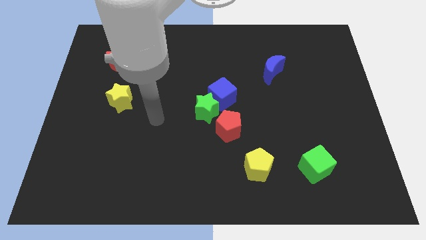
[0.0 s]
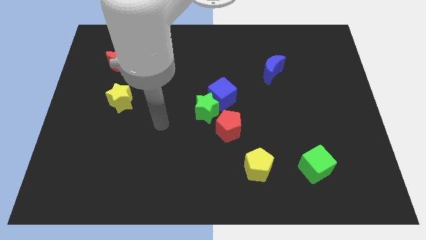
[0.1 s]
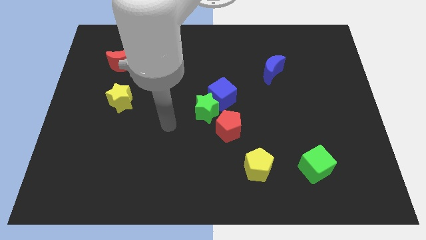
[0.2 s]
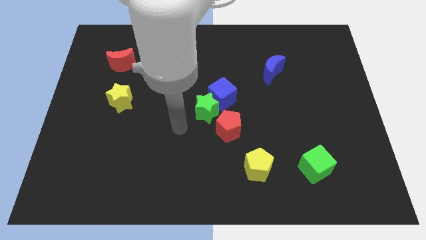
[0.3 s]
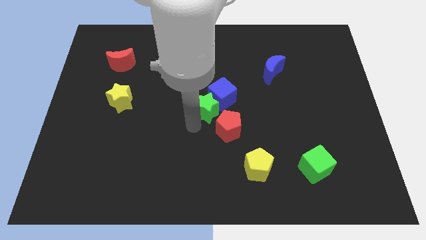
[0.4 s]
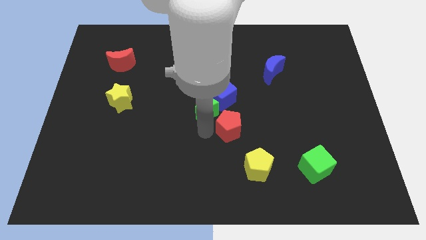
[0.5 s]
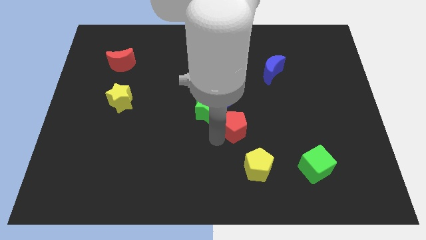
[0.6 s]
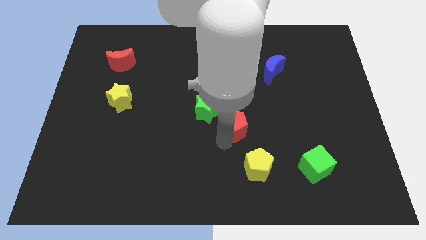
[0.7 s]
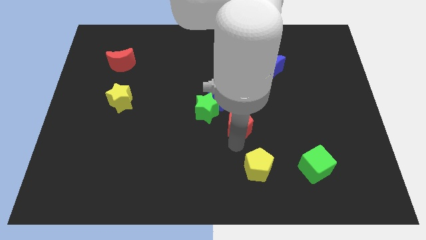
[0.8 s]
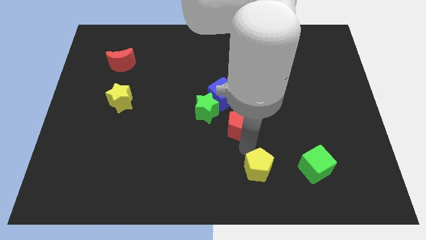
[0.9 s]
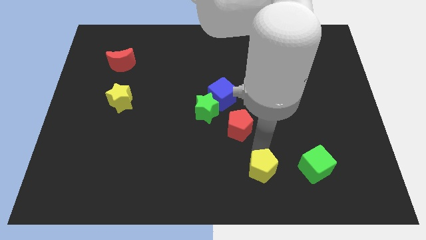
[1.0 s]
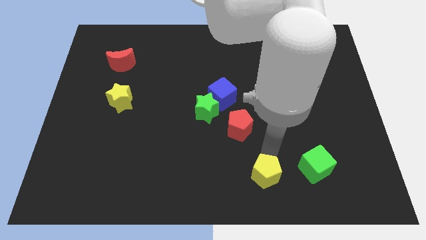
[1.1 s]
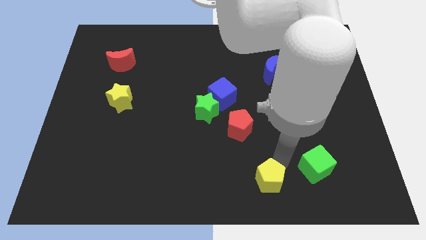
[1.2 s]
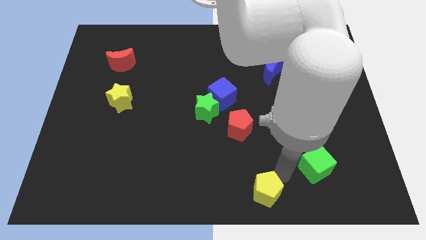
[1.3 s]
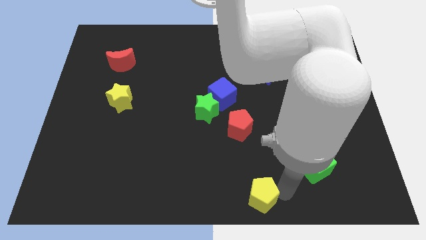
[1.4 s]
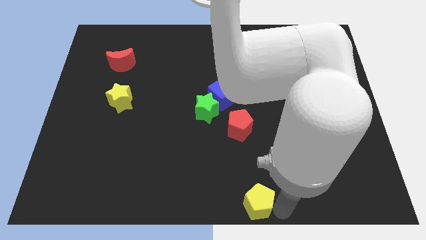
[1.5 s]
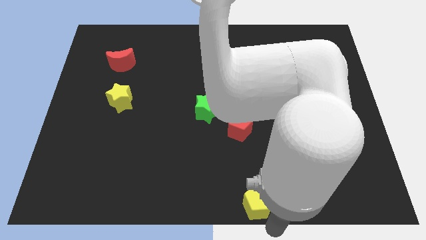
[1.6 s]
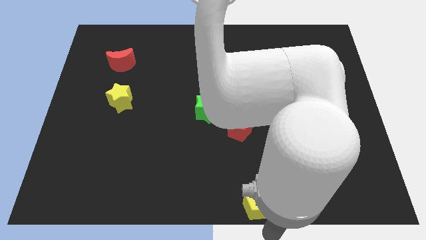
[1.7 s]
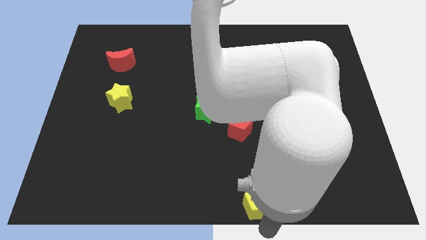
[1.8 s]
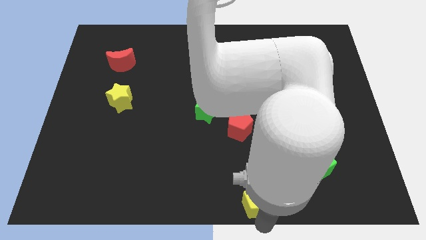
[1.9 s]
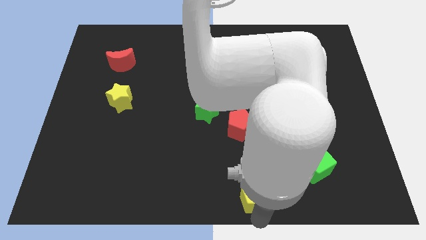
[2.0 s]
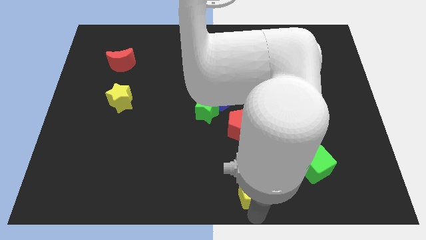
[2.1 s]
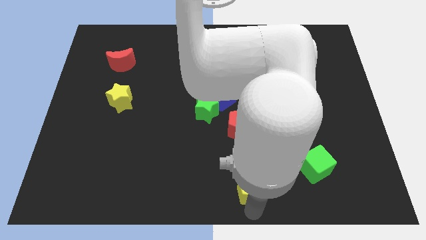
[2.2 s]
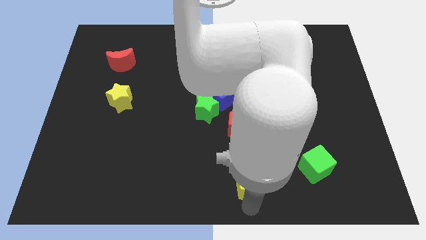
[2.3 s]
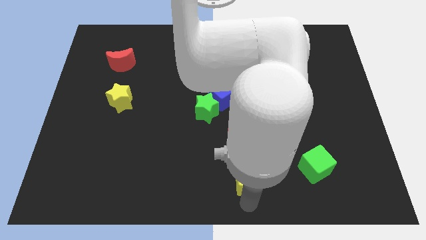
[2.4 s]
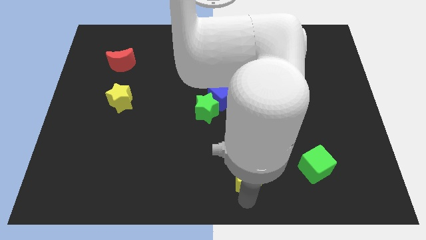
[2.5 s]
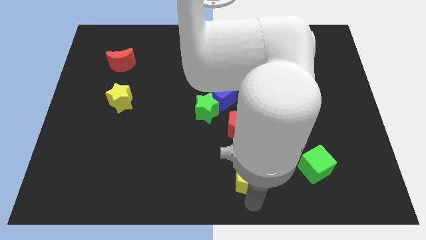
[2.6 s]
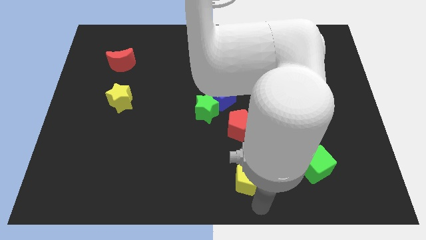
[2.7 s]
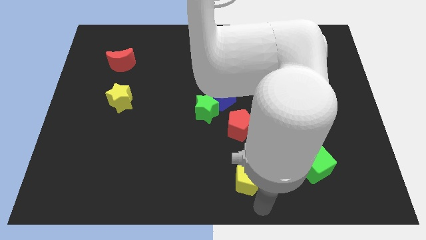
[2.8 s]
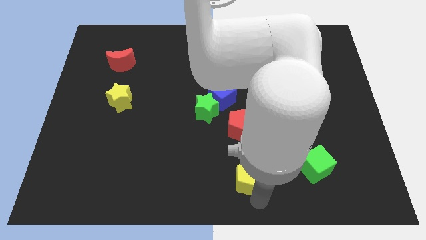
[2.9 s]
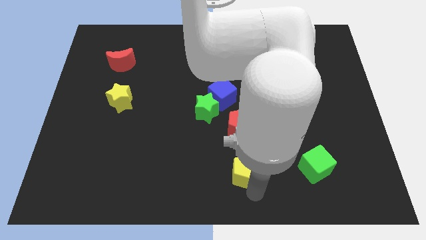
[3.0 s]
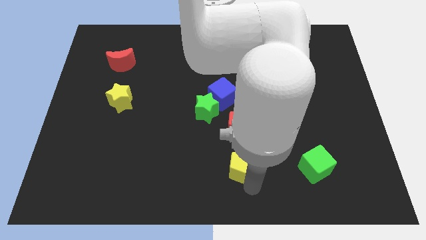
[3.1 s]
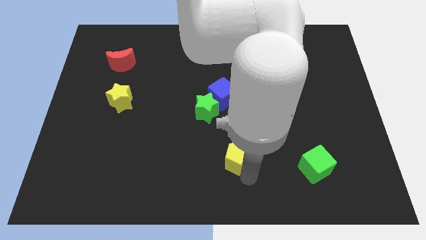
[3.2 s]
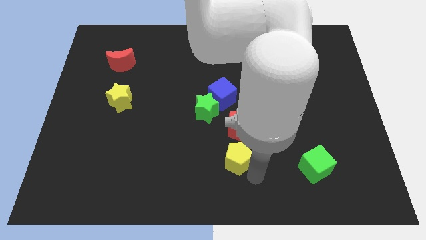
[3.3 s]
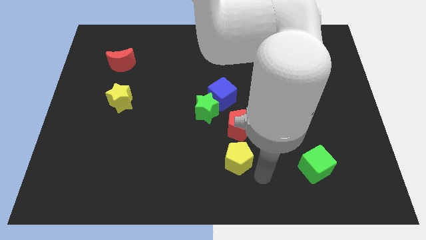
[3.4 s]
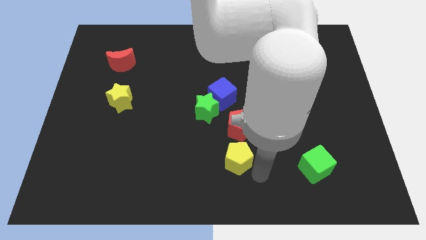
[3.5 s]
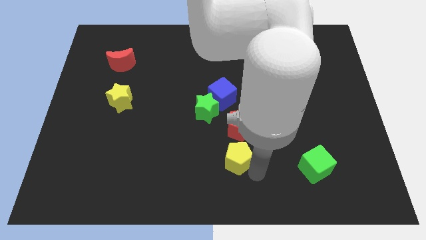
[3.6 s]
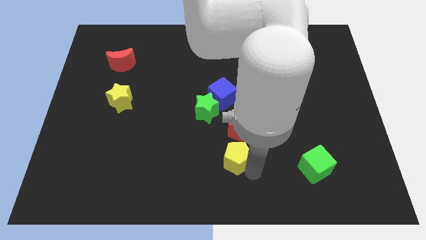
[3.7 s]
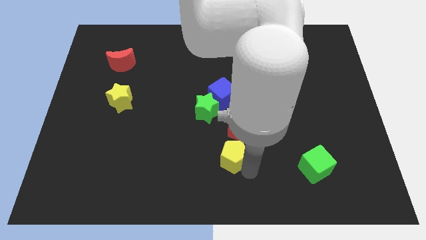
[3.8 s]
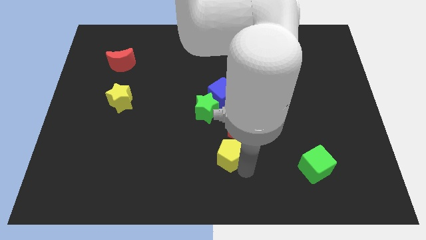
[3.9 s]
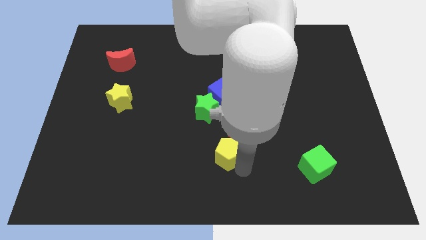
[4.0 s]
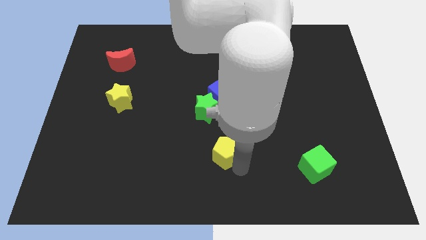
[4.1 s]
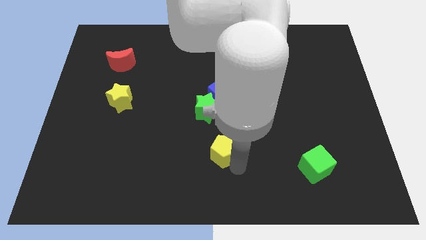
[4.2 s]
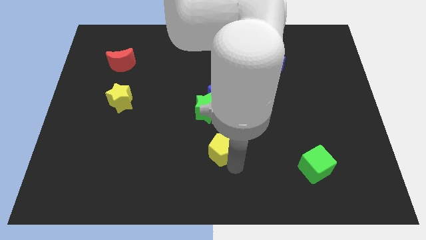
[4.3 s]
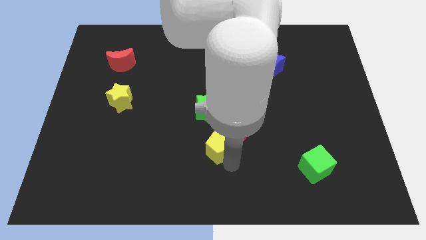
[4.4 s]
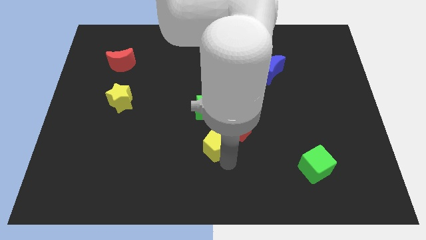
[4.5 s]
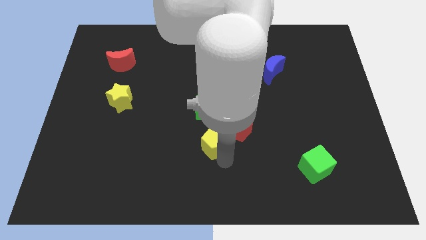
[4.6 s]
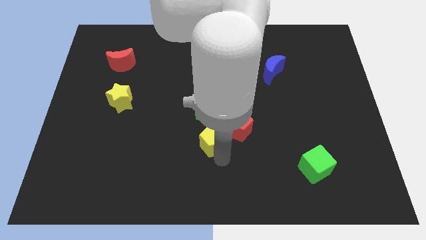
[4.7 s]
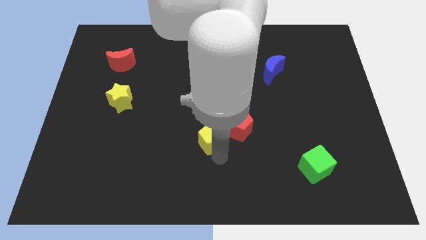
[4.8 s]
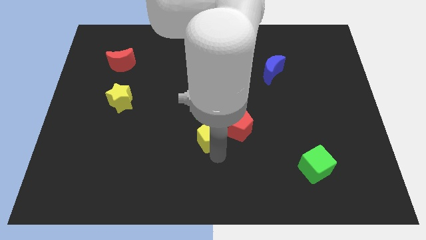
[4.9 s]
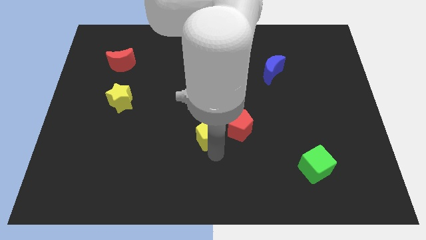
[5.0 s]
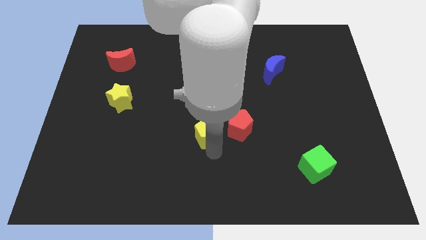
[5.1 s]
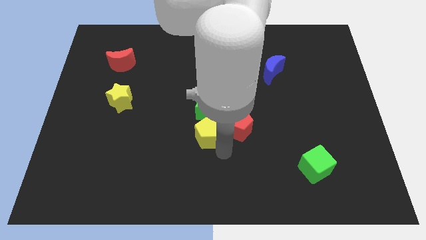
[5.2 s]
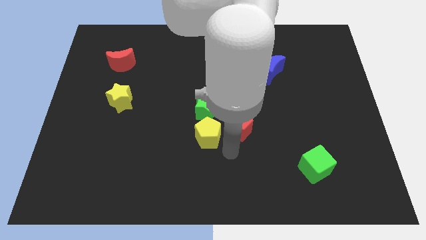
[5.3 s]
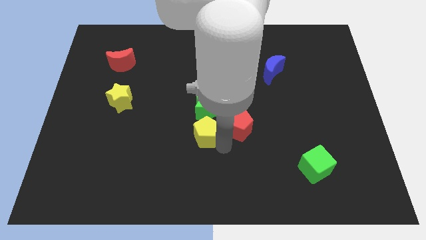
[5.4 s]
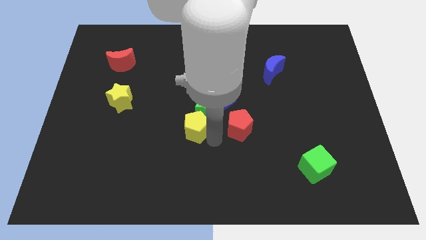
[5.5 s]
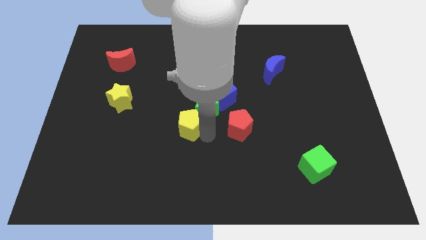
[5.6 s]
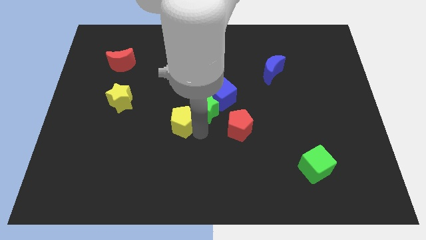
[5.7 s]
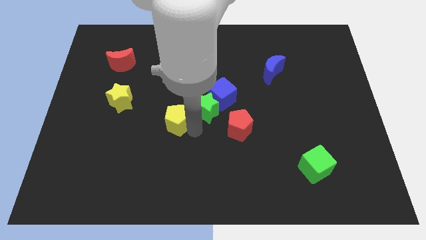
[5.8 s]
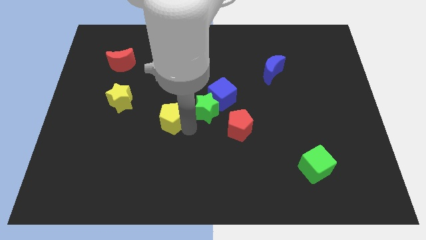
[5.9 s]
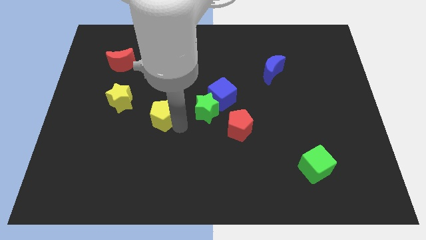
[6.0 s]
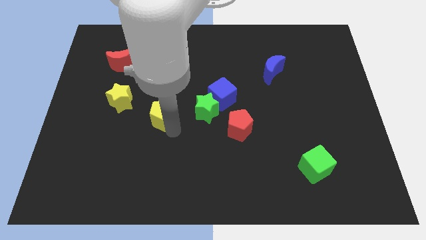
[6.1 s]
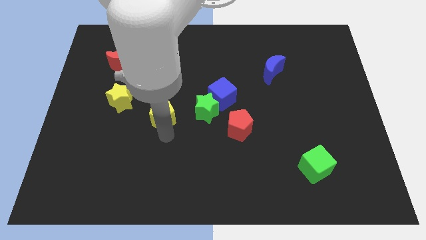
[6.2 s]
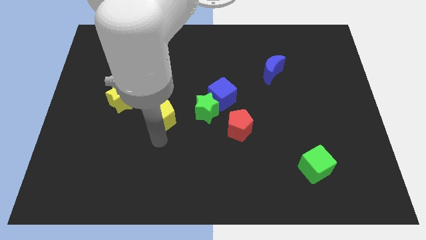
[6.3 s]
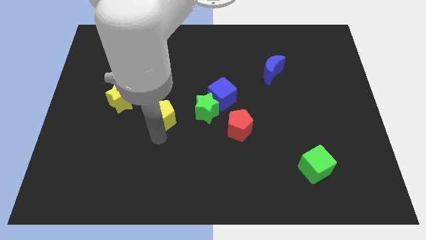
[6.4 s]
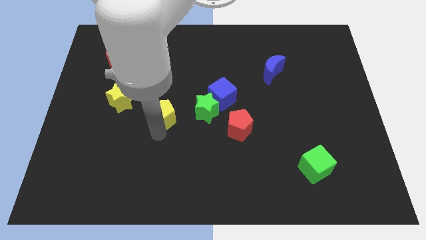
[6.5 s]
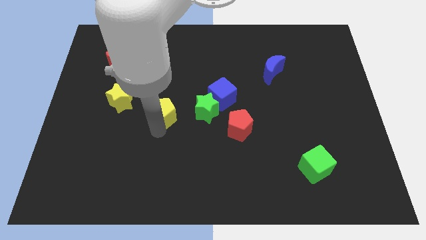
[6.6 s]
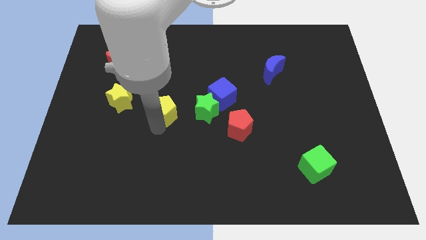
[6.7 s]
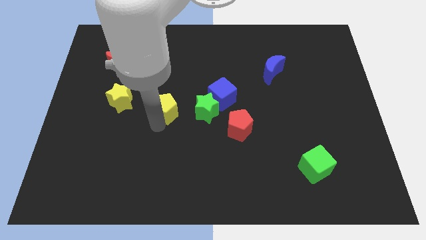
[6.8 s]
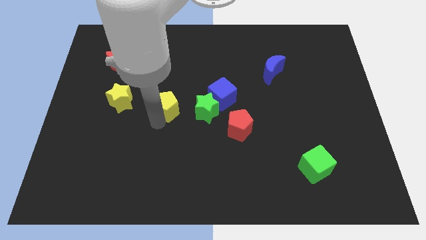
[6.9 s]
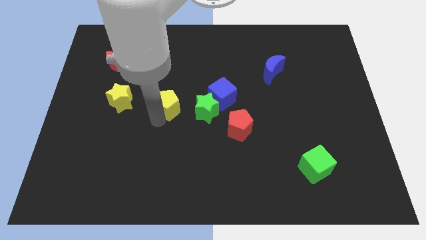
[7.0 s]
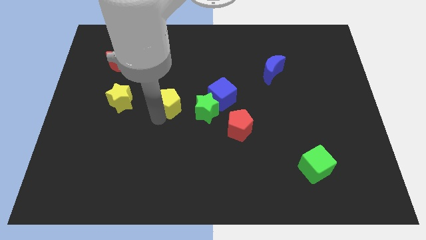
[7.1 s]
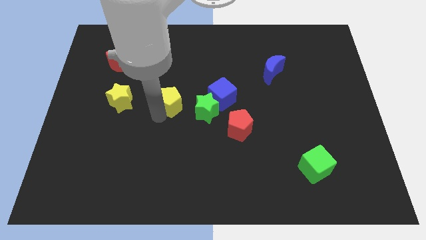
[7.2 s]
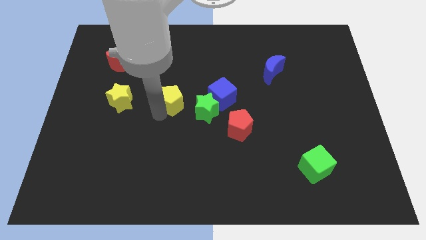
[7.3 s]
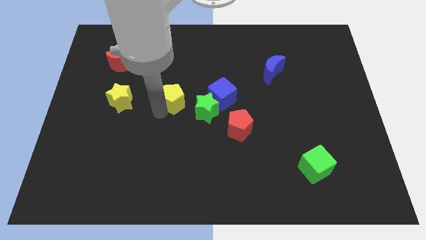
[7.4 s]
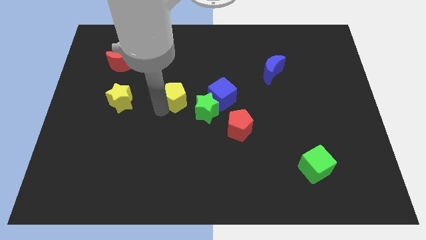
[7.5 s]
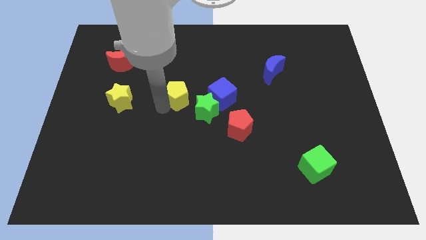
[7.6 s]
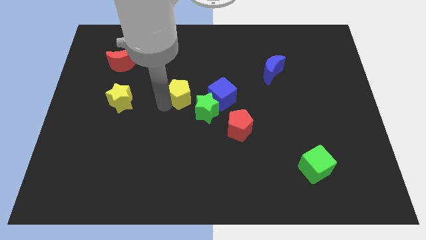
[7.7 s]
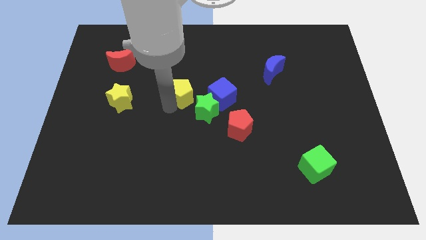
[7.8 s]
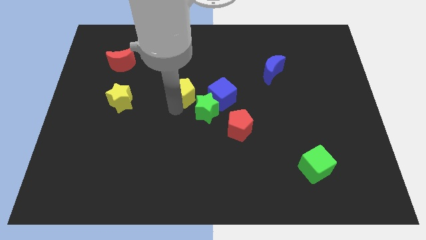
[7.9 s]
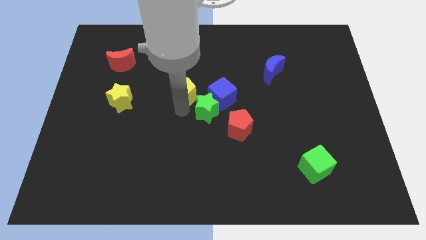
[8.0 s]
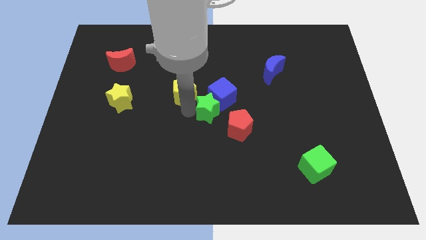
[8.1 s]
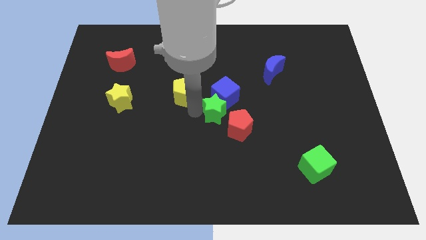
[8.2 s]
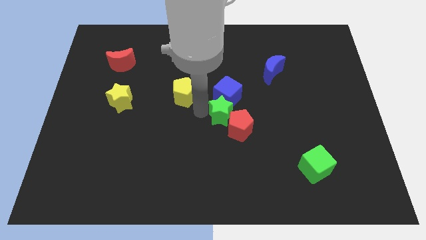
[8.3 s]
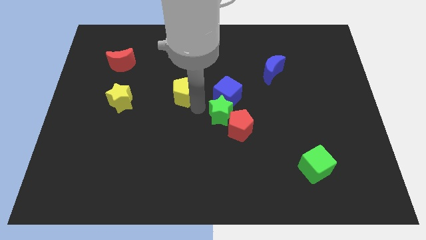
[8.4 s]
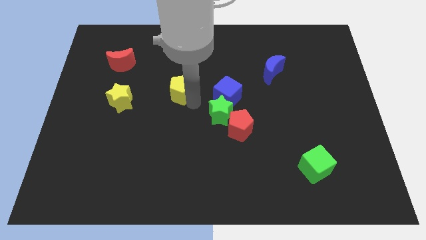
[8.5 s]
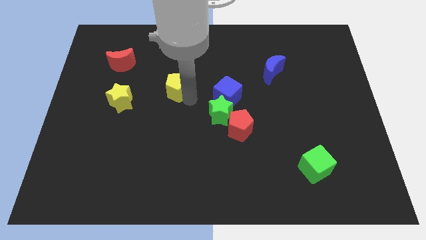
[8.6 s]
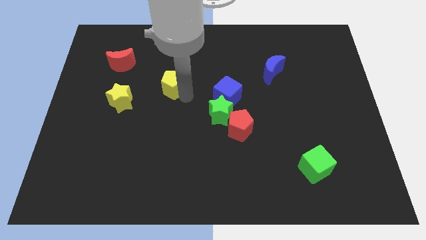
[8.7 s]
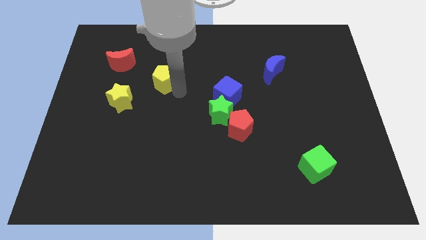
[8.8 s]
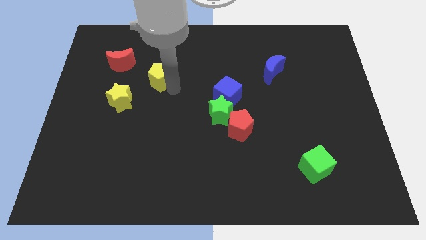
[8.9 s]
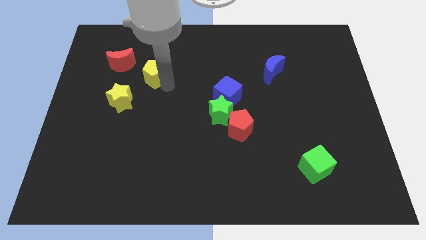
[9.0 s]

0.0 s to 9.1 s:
push the yellow pentagon right of the red moon
